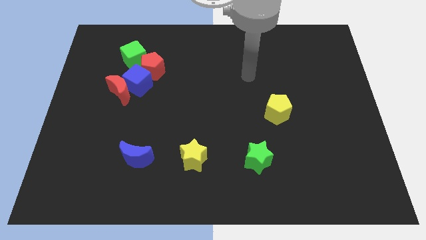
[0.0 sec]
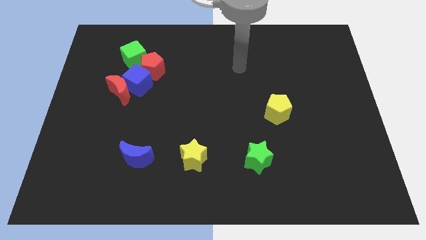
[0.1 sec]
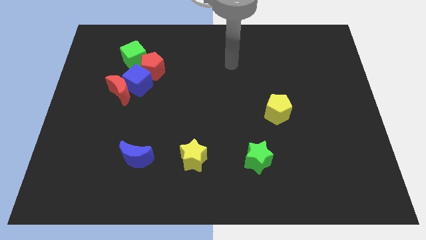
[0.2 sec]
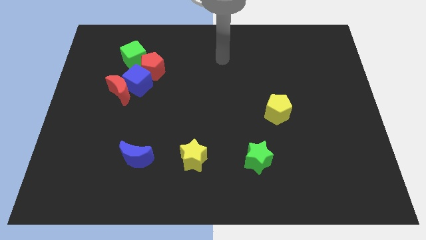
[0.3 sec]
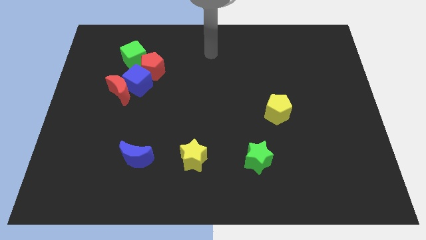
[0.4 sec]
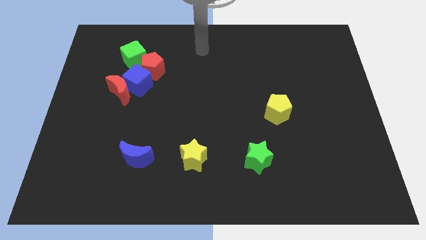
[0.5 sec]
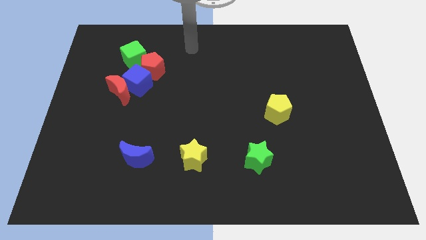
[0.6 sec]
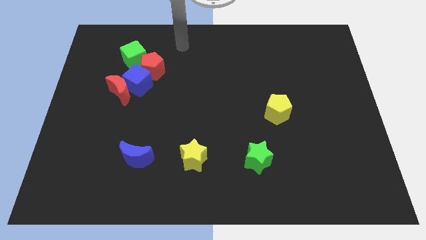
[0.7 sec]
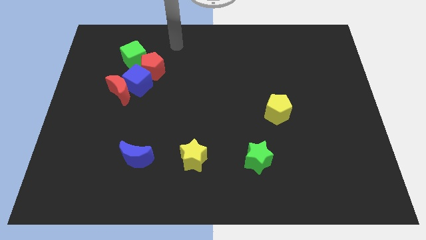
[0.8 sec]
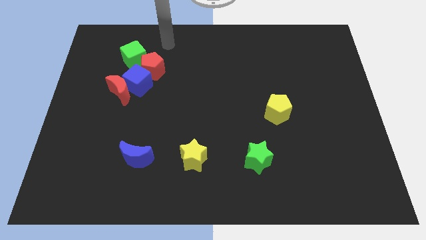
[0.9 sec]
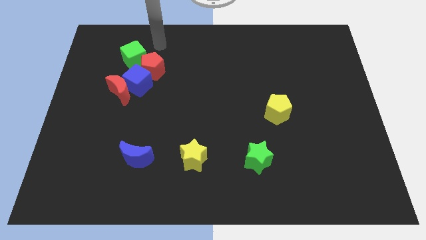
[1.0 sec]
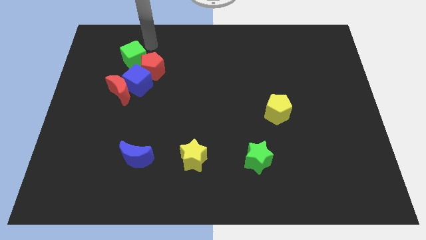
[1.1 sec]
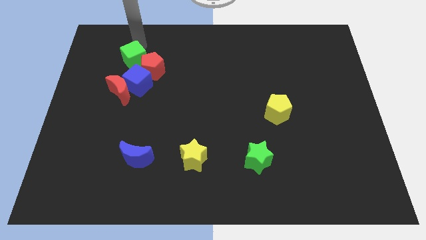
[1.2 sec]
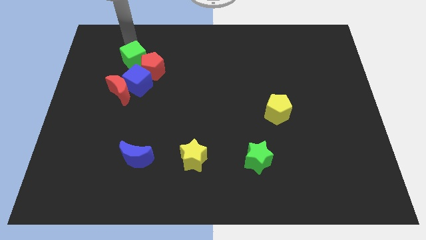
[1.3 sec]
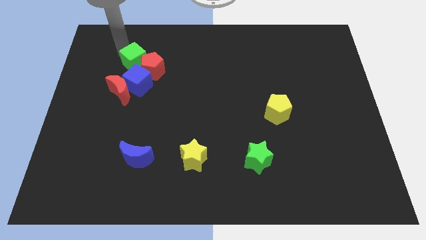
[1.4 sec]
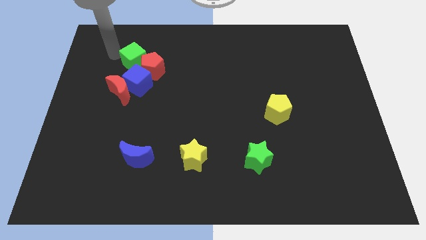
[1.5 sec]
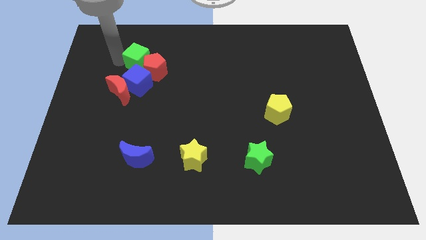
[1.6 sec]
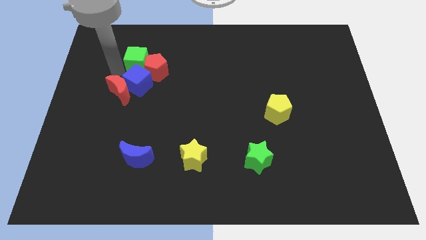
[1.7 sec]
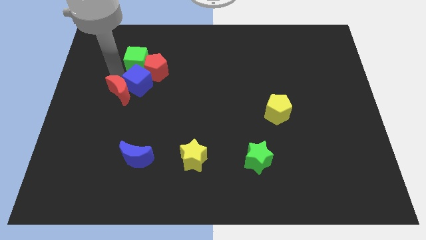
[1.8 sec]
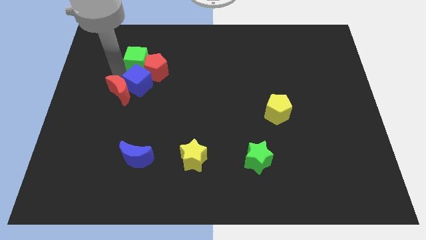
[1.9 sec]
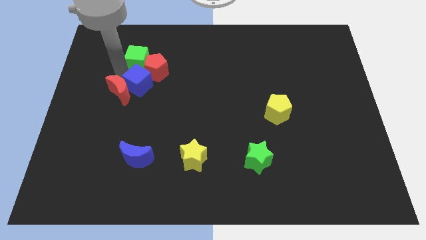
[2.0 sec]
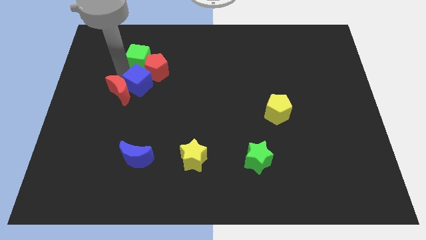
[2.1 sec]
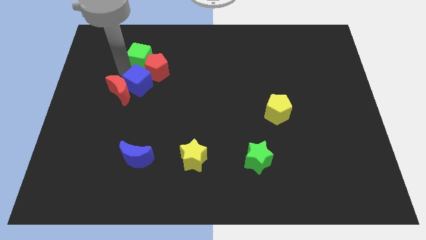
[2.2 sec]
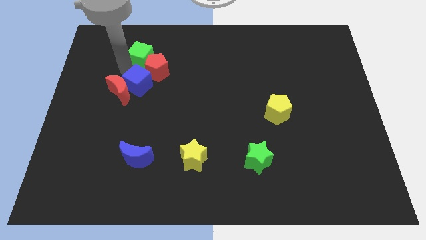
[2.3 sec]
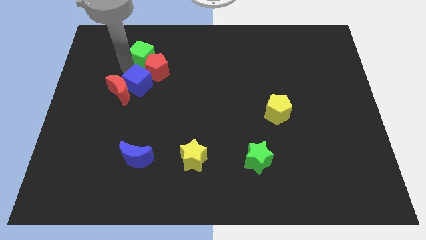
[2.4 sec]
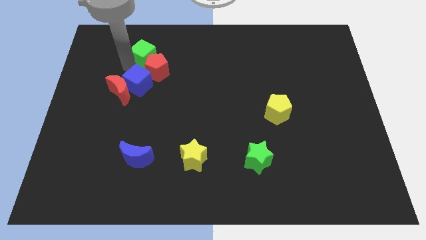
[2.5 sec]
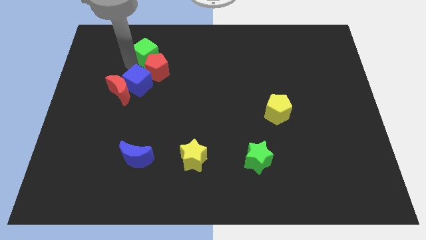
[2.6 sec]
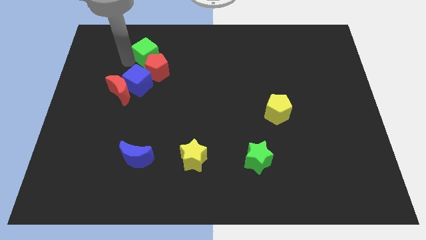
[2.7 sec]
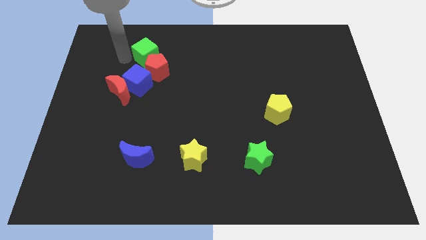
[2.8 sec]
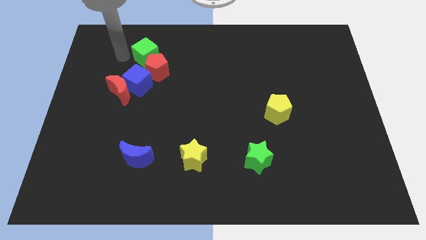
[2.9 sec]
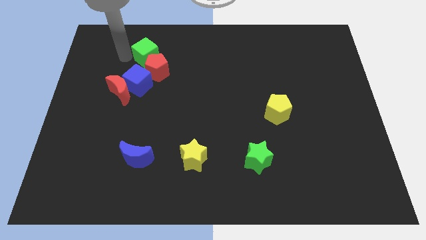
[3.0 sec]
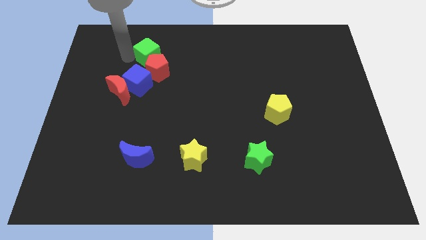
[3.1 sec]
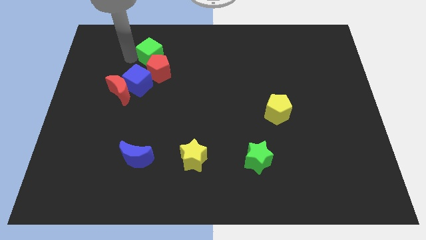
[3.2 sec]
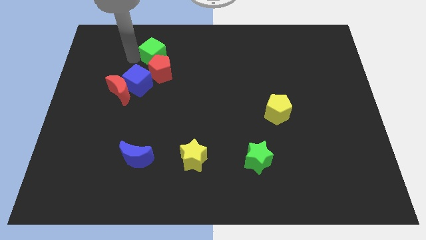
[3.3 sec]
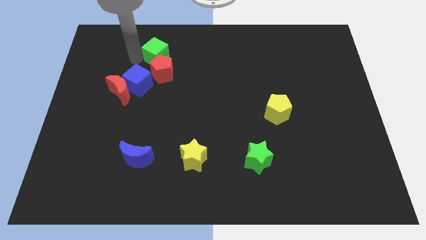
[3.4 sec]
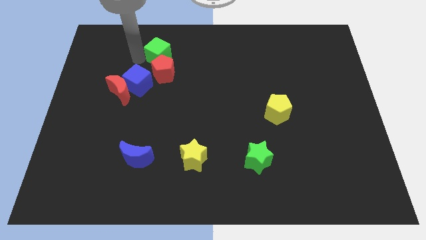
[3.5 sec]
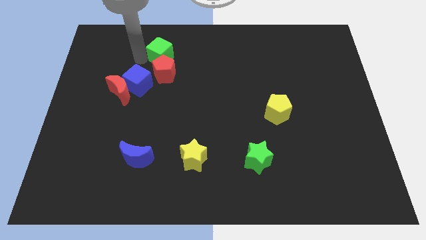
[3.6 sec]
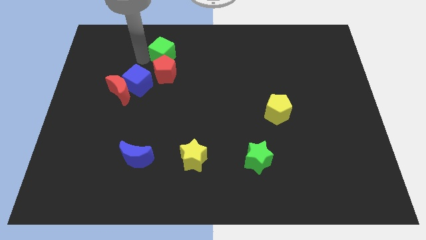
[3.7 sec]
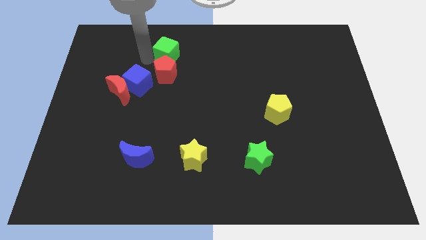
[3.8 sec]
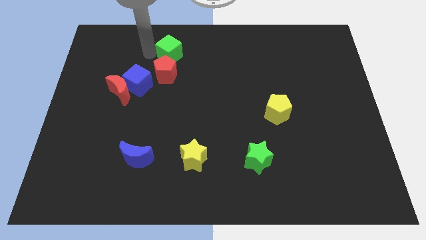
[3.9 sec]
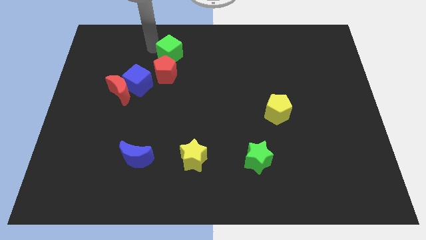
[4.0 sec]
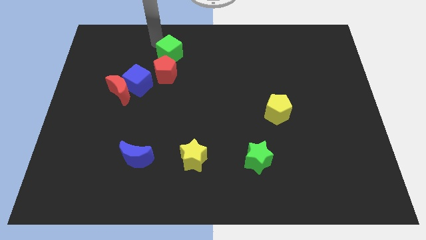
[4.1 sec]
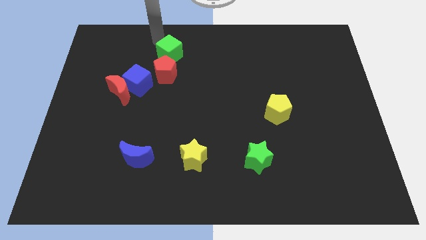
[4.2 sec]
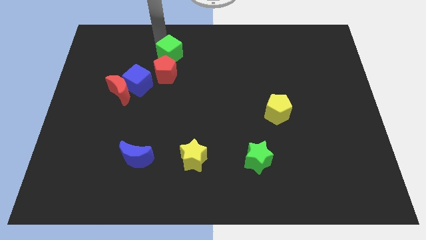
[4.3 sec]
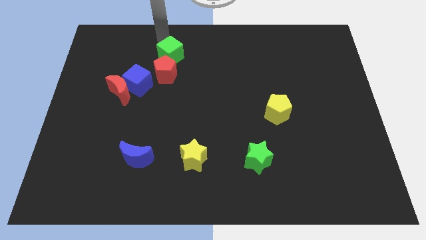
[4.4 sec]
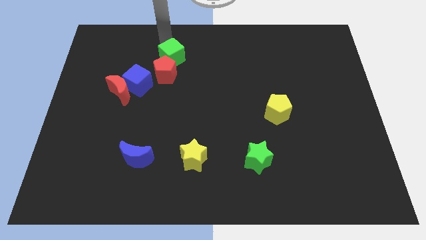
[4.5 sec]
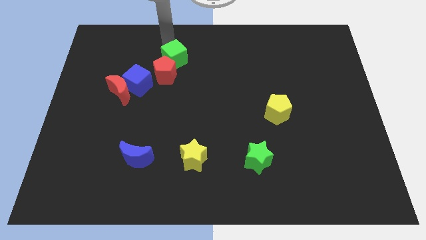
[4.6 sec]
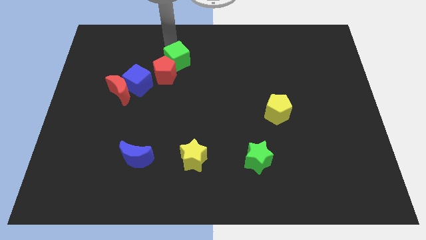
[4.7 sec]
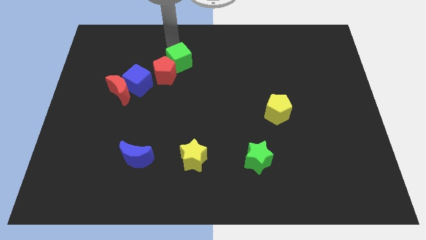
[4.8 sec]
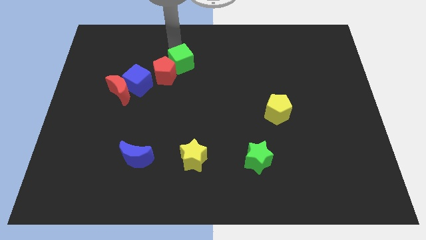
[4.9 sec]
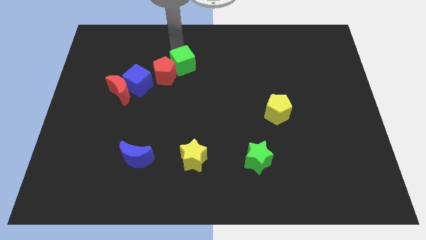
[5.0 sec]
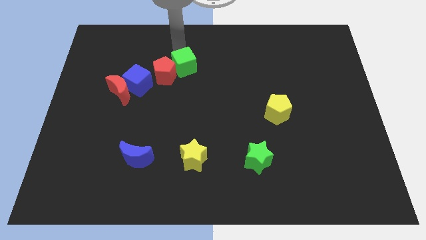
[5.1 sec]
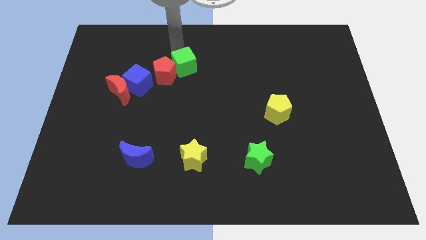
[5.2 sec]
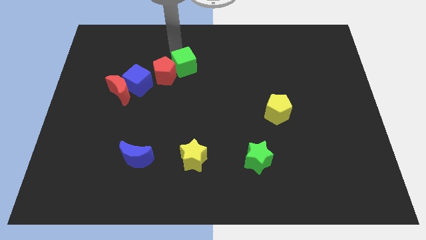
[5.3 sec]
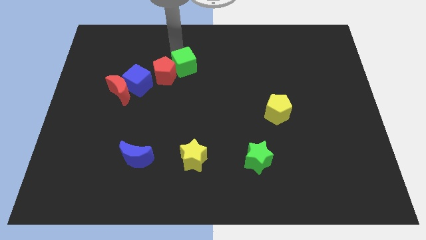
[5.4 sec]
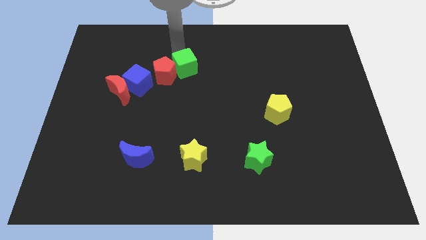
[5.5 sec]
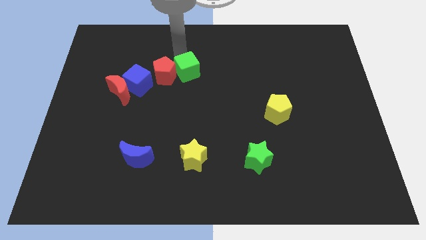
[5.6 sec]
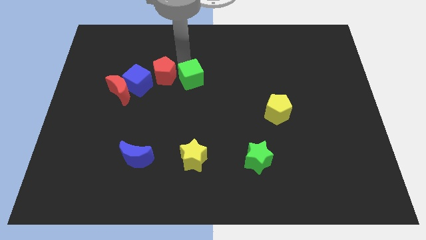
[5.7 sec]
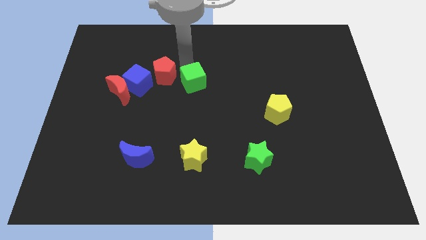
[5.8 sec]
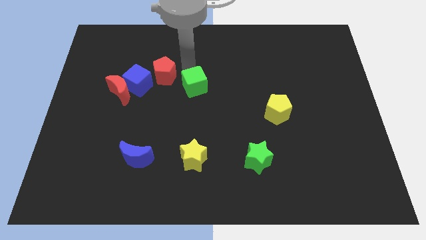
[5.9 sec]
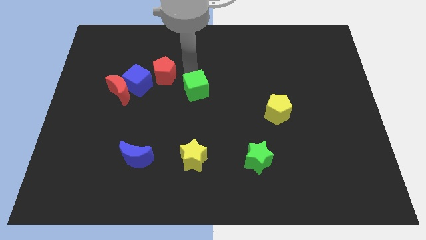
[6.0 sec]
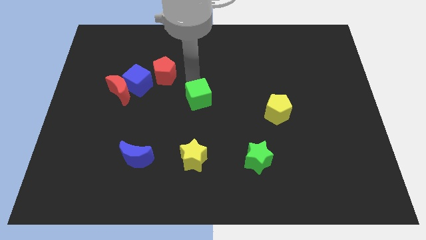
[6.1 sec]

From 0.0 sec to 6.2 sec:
slide the green cube down and to the right

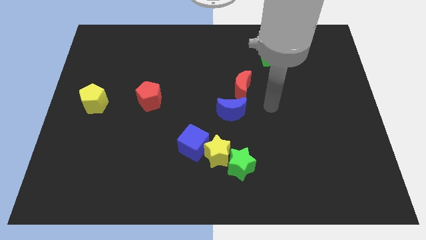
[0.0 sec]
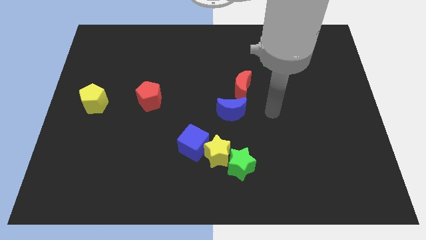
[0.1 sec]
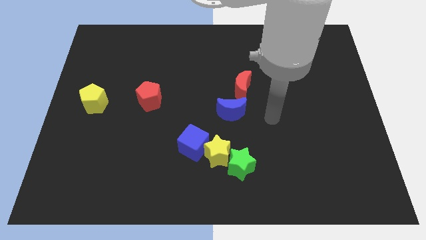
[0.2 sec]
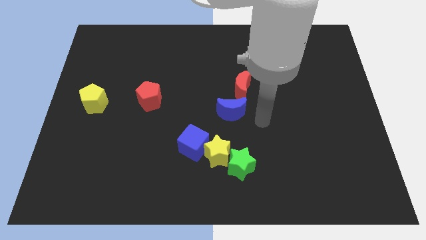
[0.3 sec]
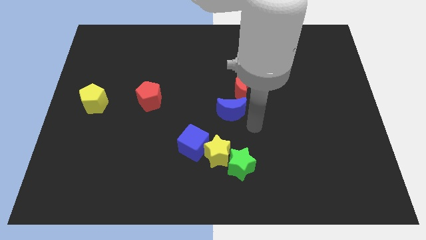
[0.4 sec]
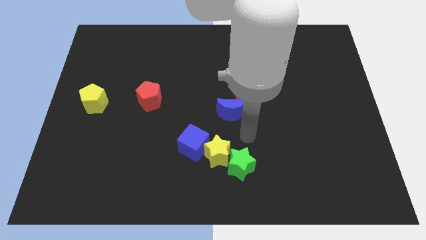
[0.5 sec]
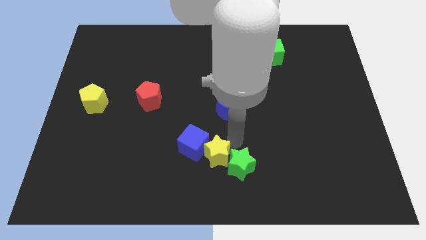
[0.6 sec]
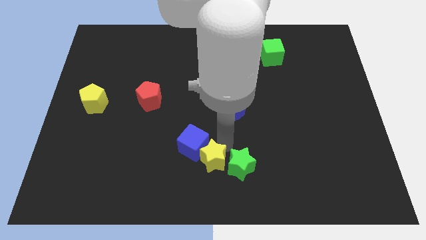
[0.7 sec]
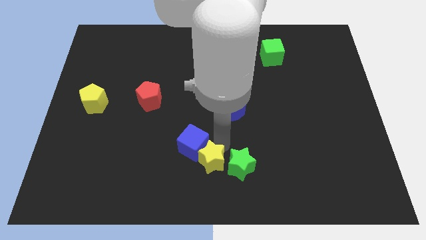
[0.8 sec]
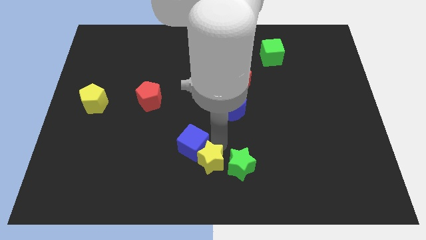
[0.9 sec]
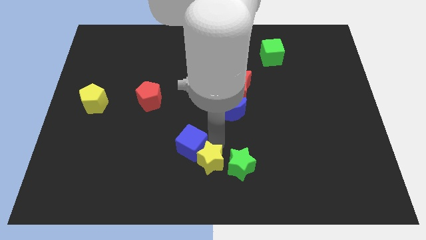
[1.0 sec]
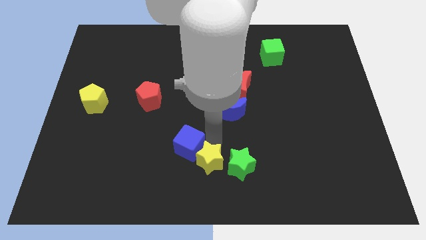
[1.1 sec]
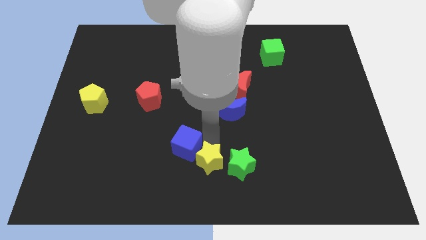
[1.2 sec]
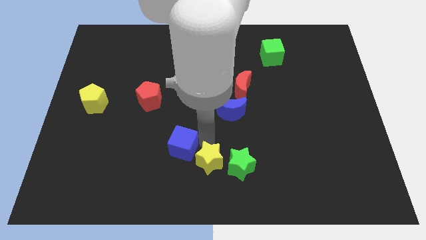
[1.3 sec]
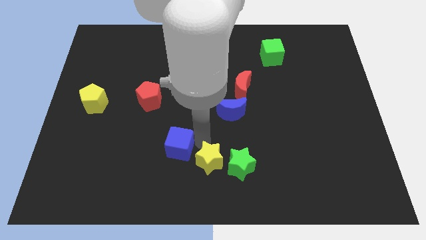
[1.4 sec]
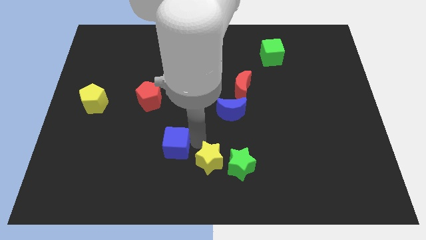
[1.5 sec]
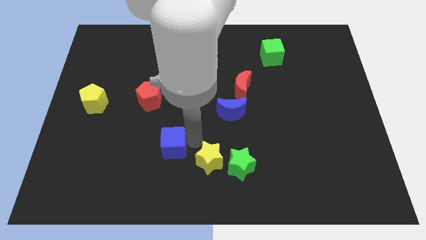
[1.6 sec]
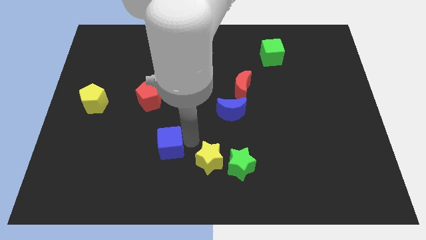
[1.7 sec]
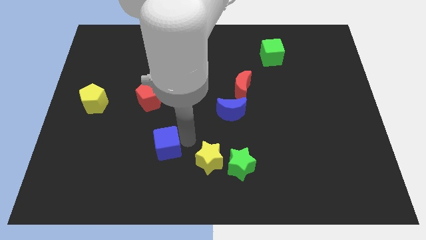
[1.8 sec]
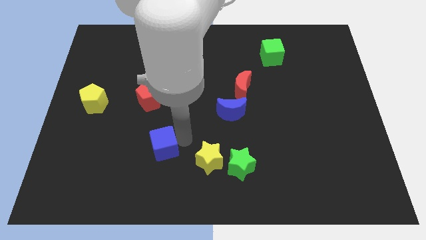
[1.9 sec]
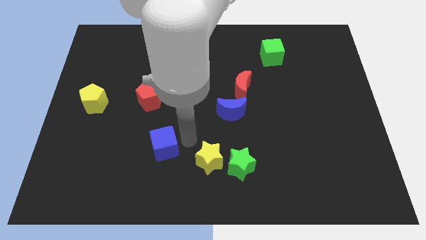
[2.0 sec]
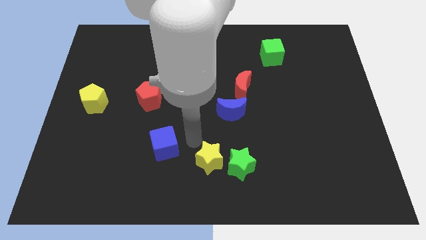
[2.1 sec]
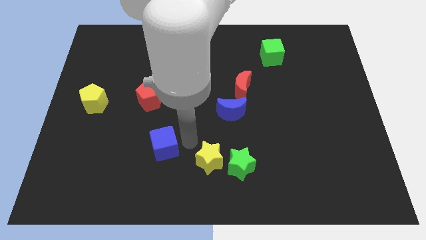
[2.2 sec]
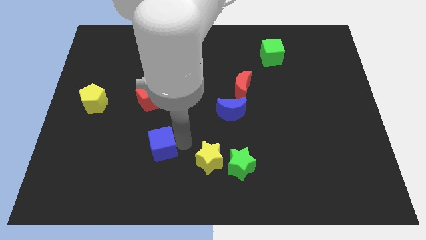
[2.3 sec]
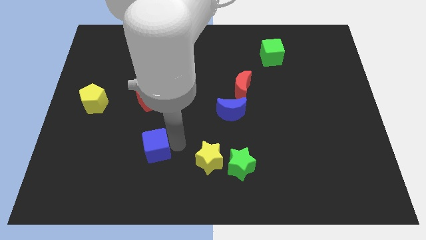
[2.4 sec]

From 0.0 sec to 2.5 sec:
move the blue cube slightly left
